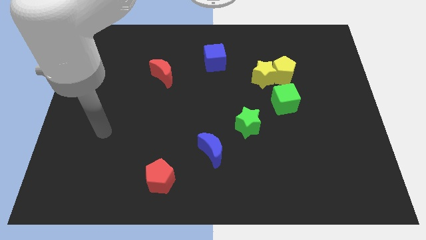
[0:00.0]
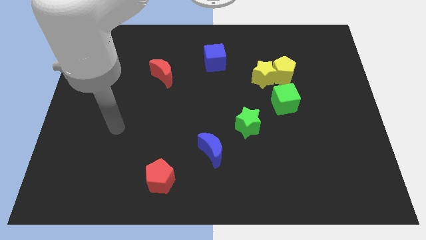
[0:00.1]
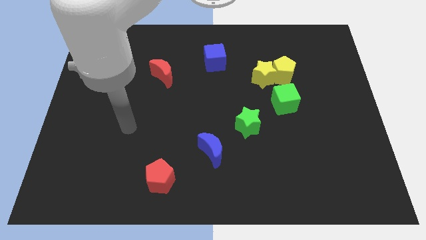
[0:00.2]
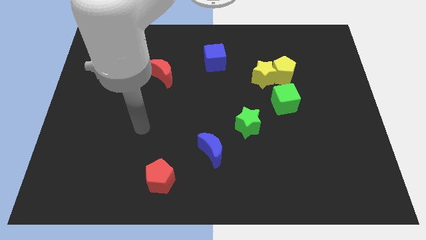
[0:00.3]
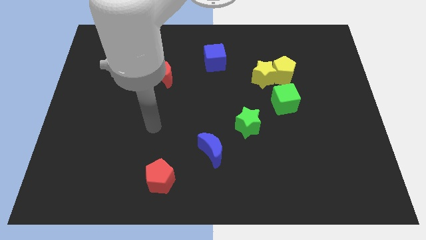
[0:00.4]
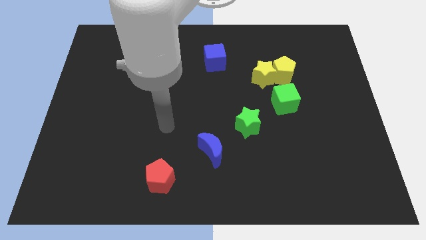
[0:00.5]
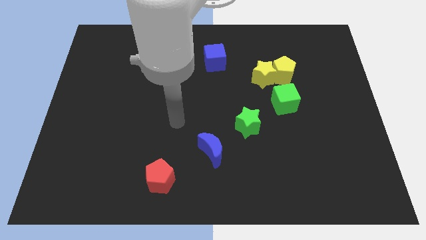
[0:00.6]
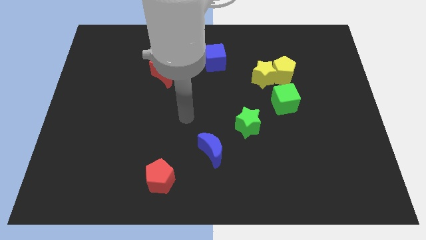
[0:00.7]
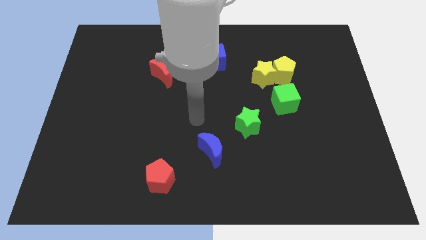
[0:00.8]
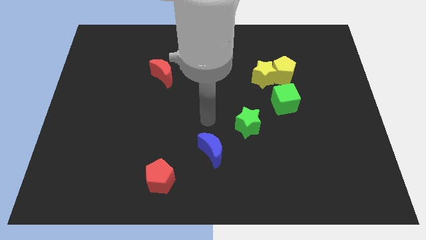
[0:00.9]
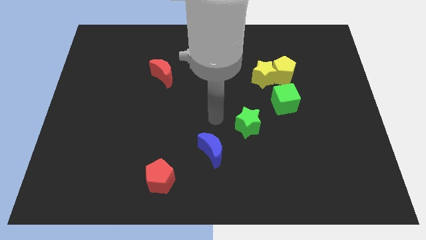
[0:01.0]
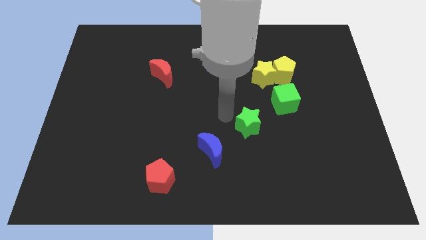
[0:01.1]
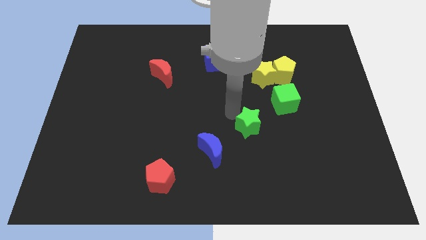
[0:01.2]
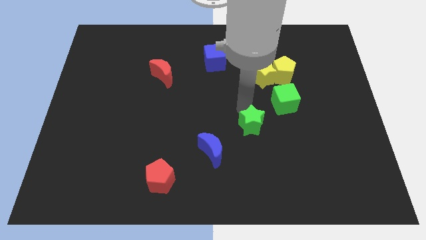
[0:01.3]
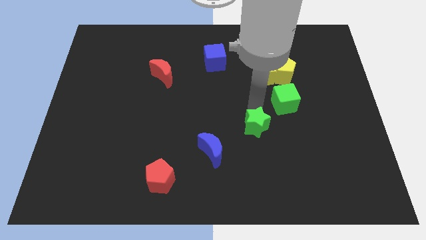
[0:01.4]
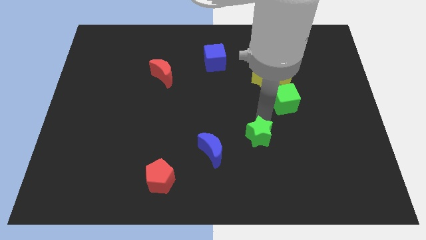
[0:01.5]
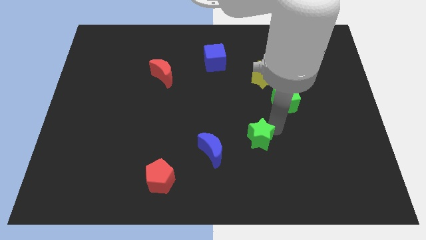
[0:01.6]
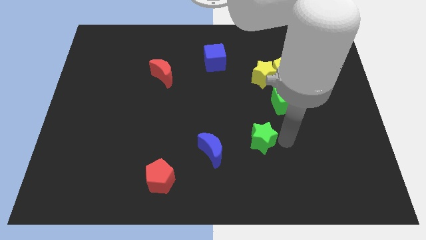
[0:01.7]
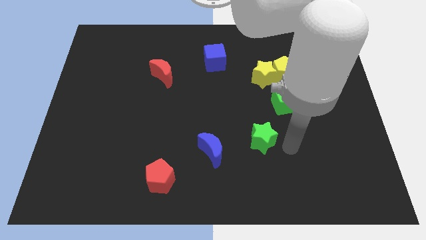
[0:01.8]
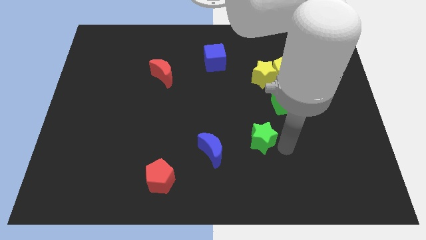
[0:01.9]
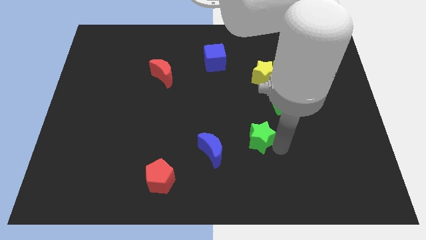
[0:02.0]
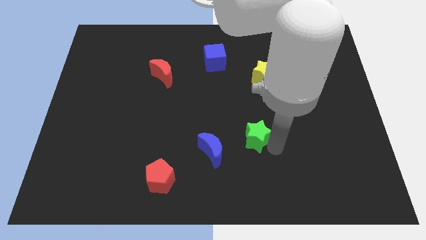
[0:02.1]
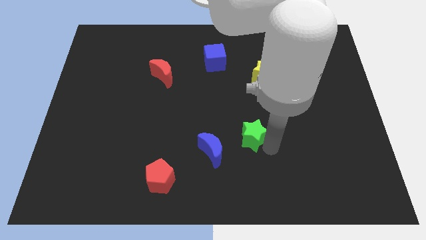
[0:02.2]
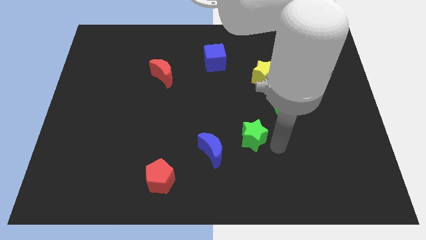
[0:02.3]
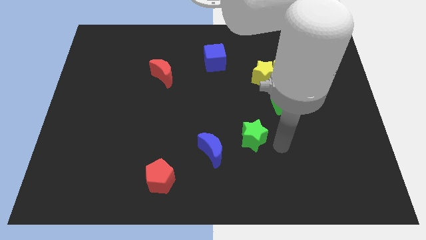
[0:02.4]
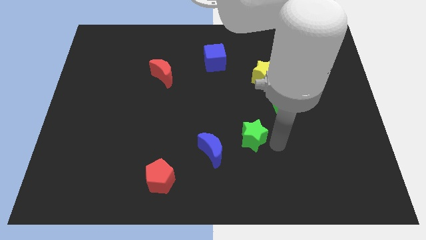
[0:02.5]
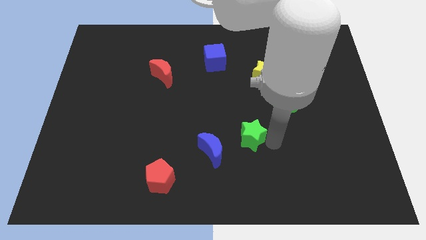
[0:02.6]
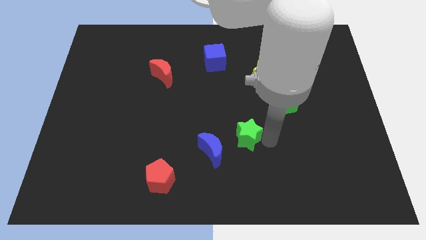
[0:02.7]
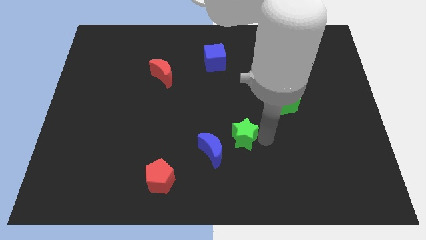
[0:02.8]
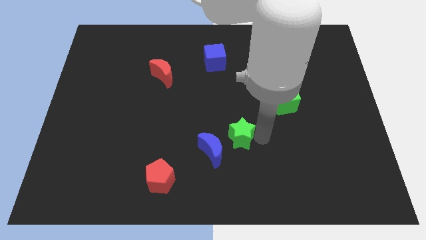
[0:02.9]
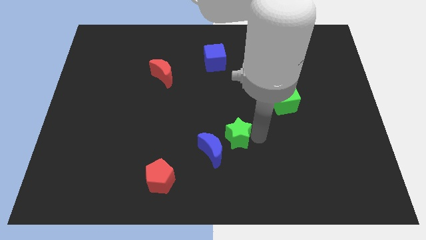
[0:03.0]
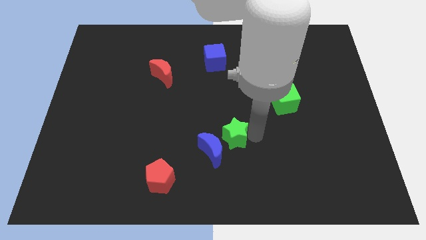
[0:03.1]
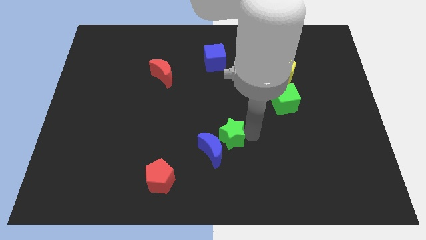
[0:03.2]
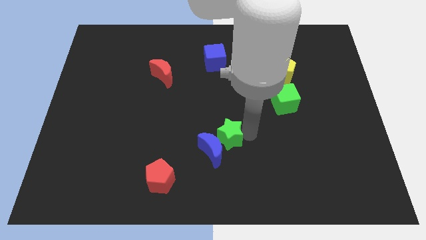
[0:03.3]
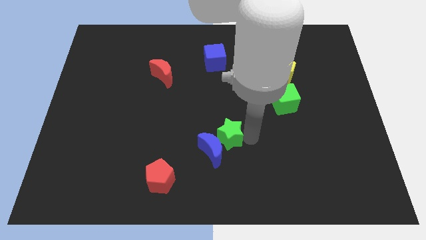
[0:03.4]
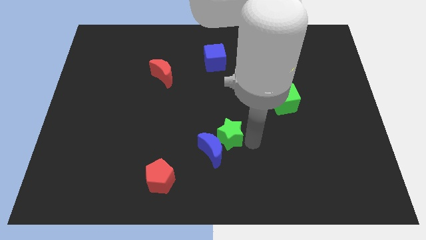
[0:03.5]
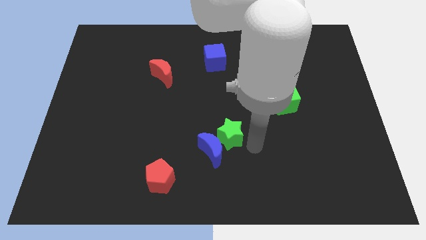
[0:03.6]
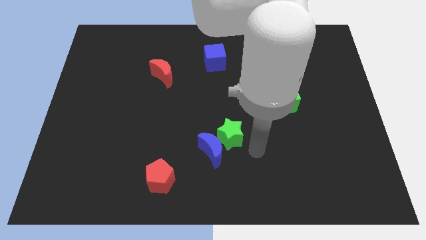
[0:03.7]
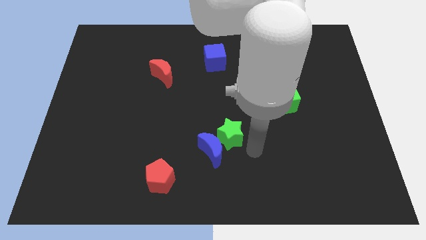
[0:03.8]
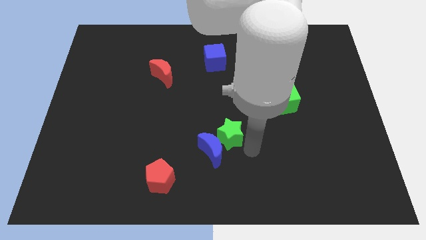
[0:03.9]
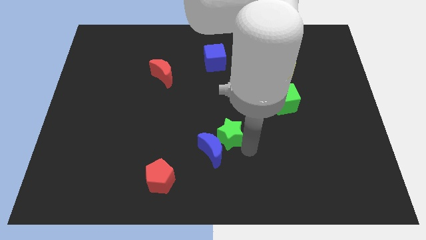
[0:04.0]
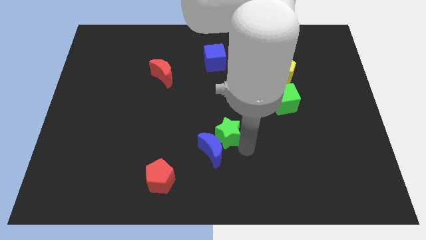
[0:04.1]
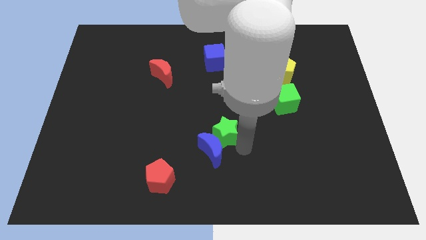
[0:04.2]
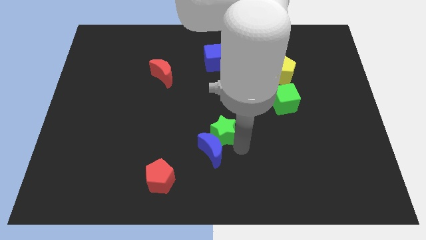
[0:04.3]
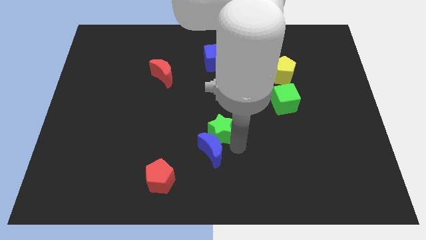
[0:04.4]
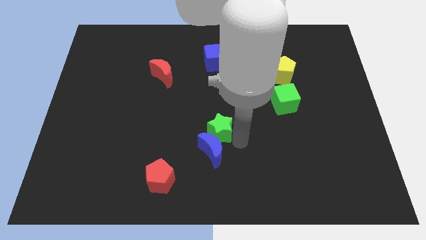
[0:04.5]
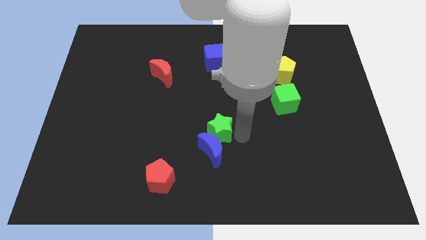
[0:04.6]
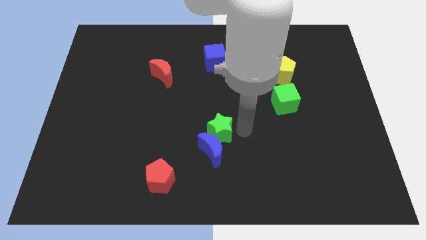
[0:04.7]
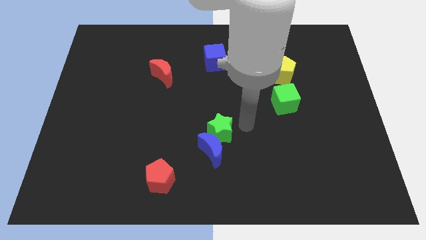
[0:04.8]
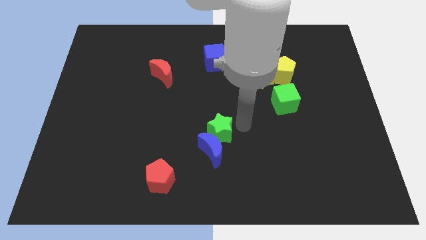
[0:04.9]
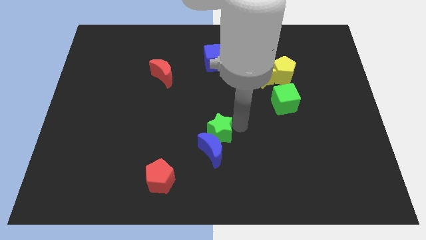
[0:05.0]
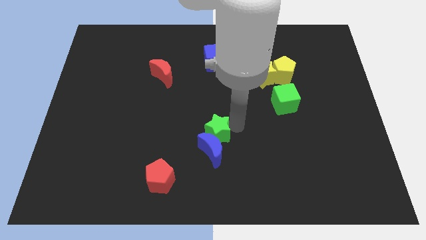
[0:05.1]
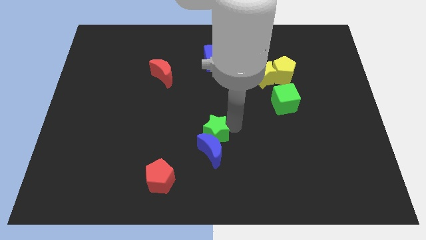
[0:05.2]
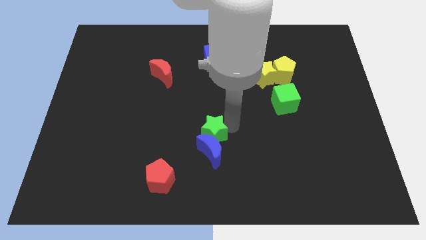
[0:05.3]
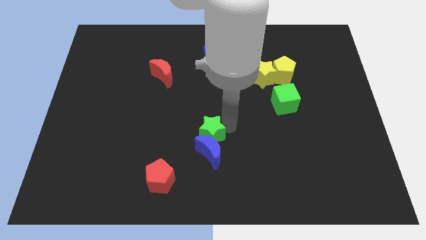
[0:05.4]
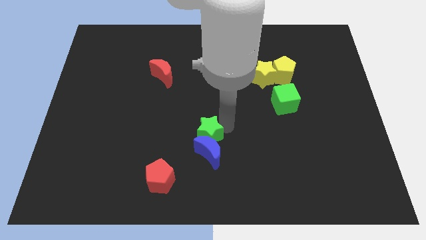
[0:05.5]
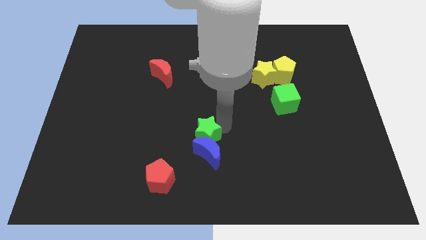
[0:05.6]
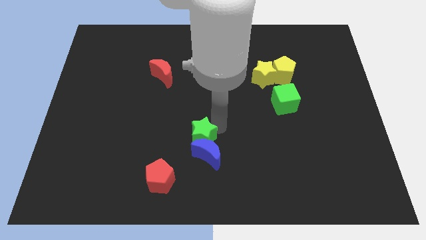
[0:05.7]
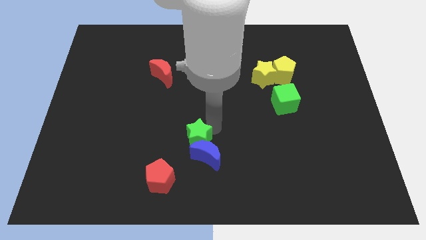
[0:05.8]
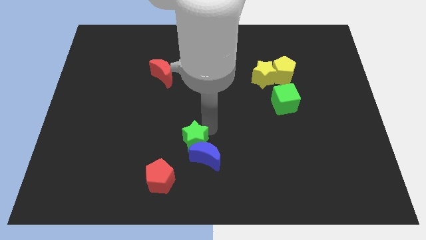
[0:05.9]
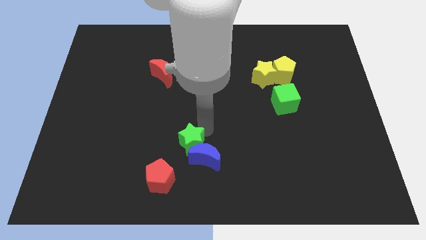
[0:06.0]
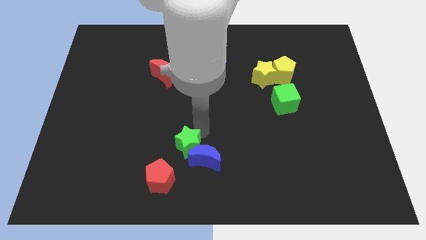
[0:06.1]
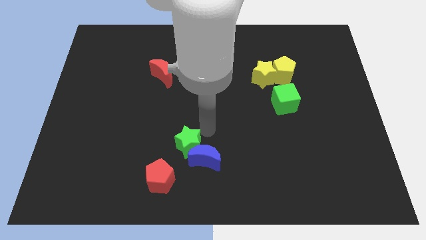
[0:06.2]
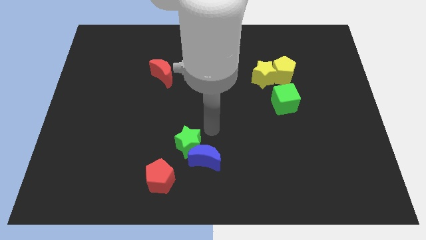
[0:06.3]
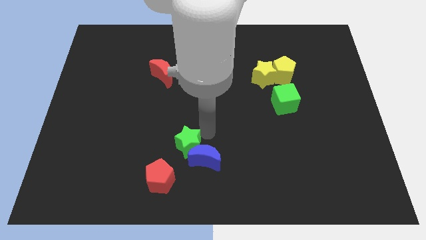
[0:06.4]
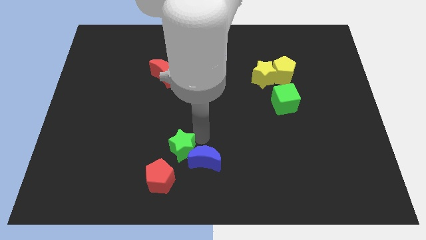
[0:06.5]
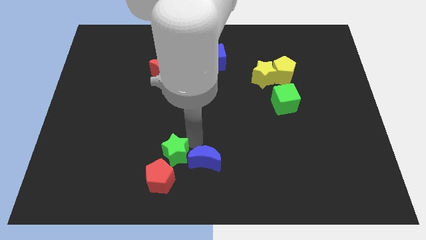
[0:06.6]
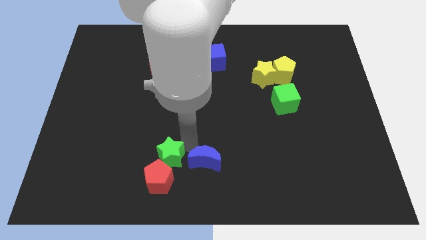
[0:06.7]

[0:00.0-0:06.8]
slide the green star towards the red pentagon
